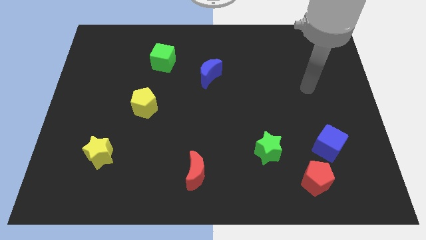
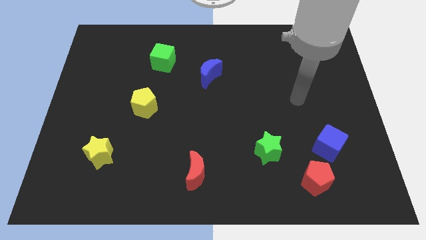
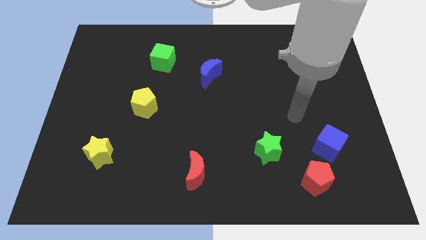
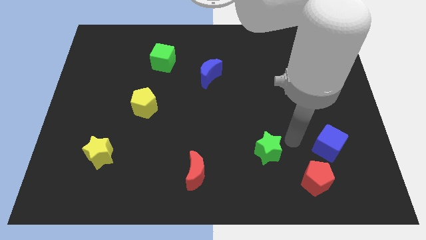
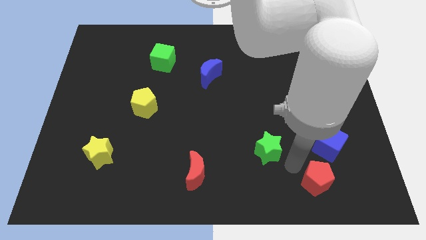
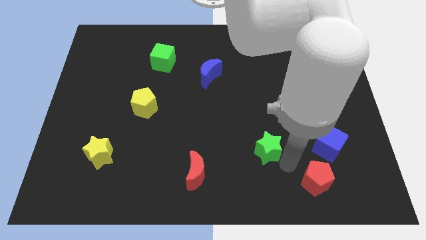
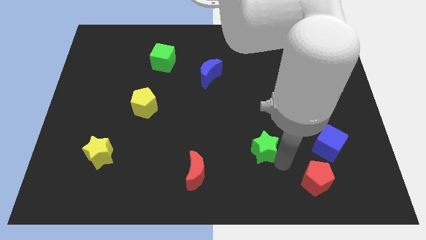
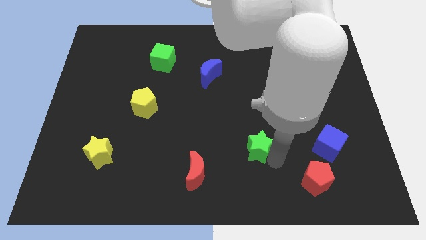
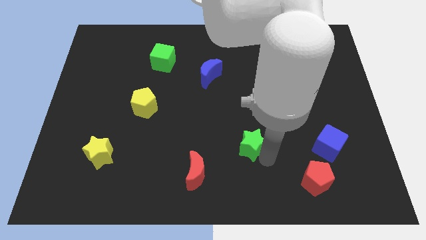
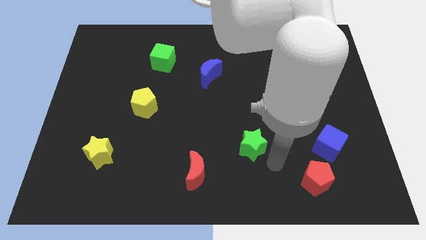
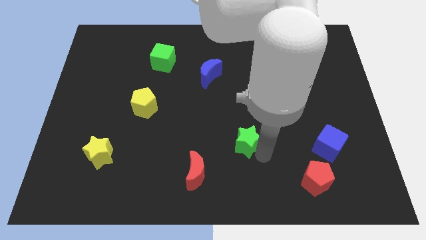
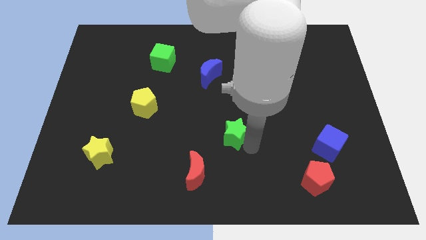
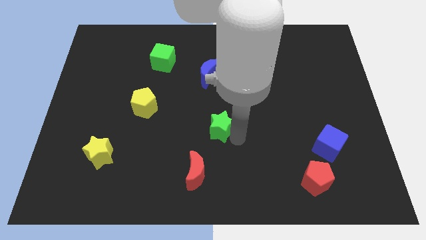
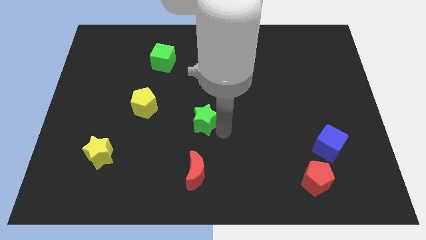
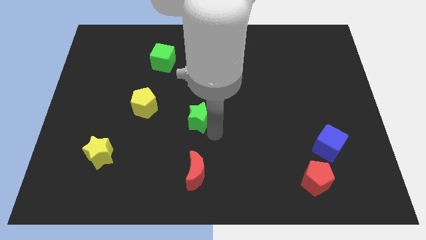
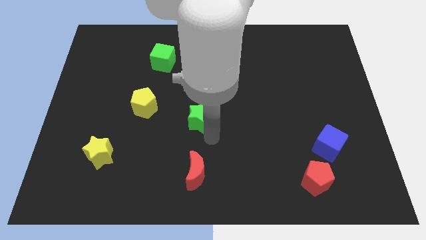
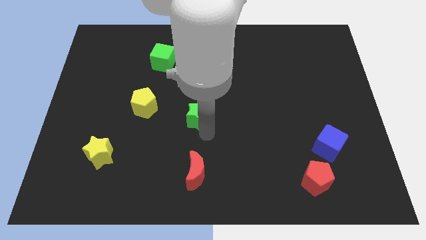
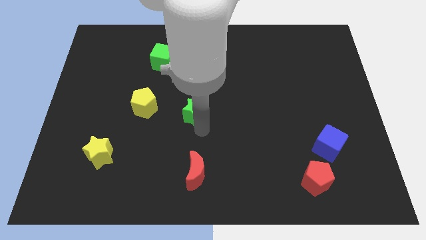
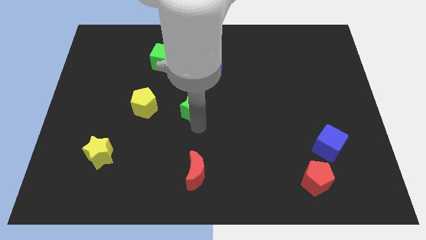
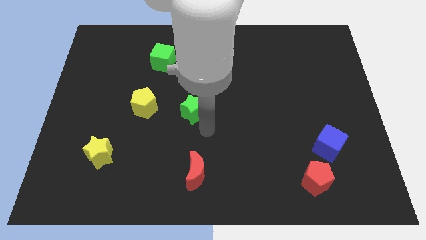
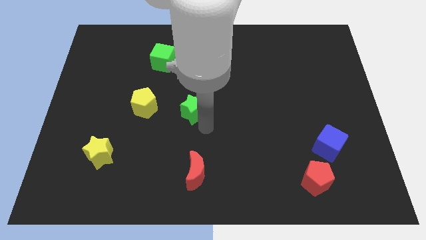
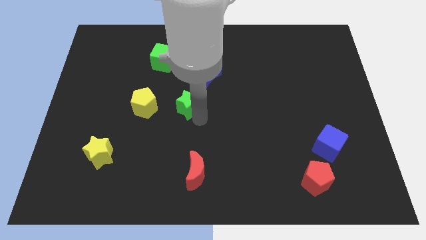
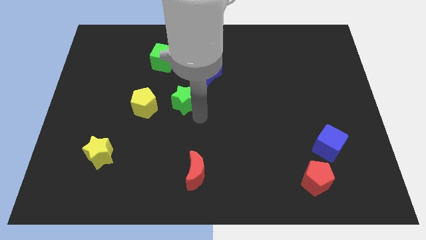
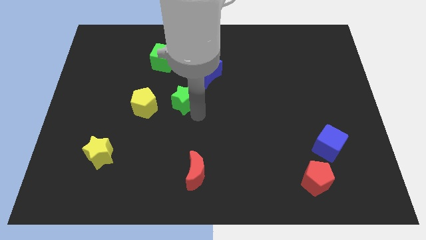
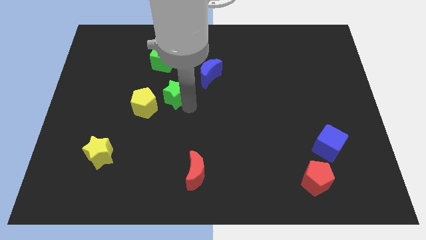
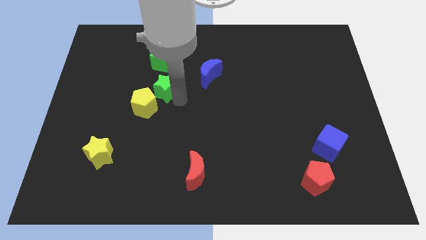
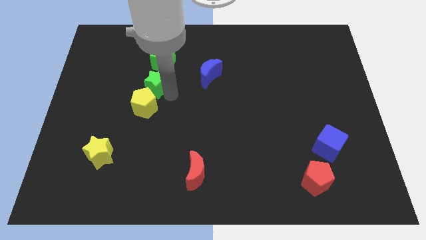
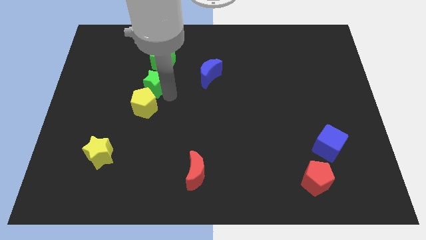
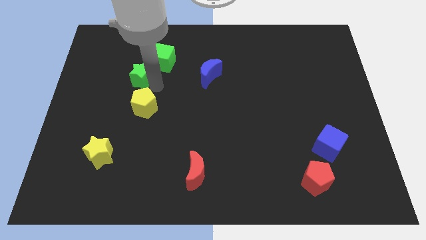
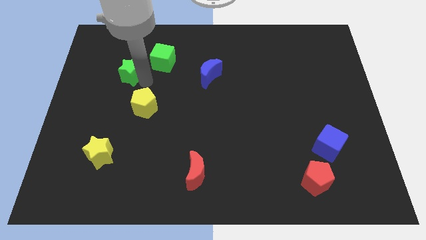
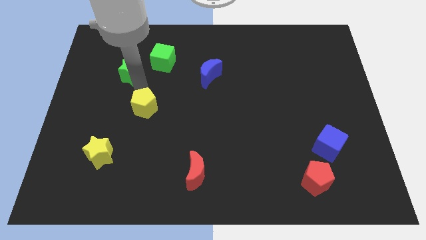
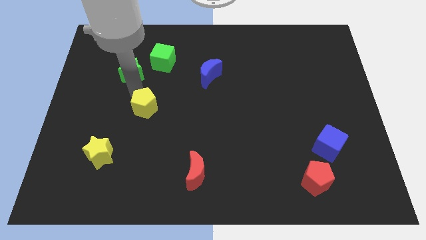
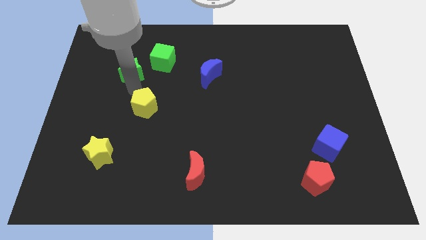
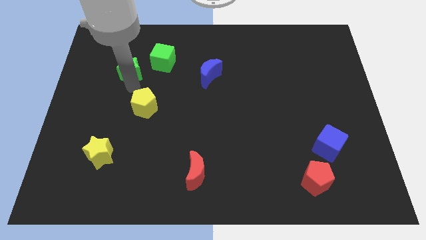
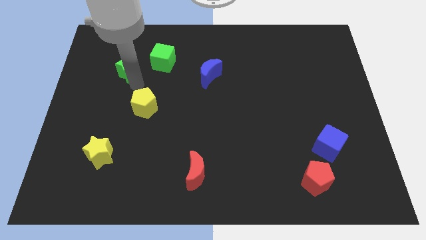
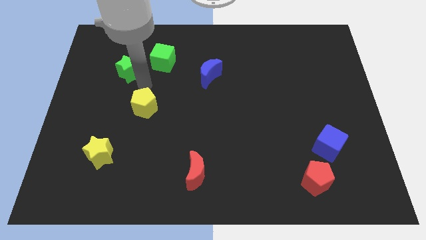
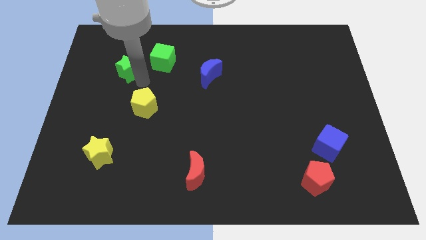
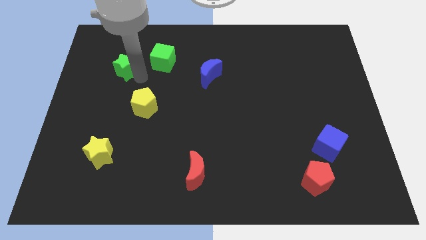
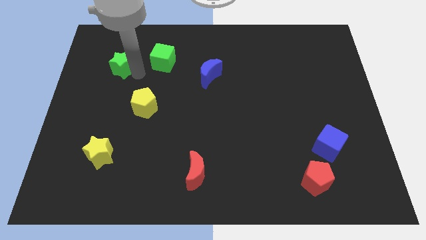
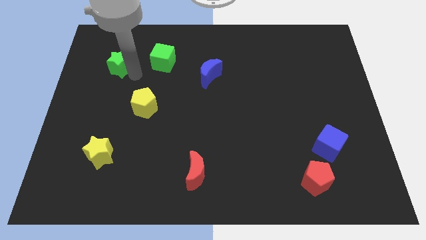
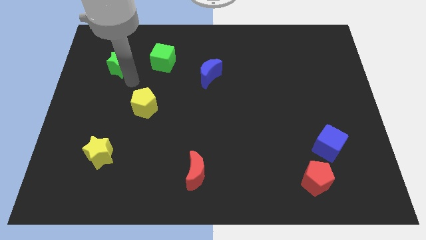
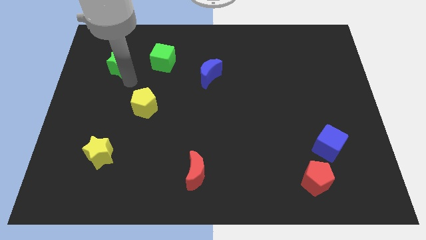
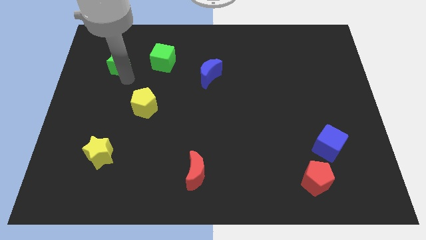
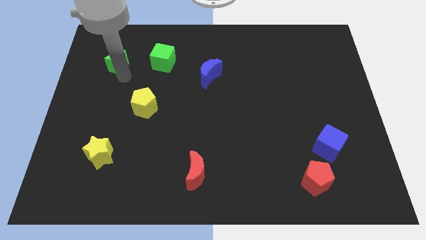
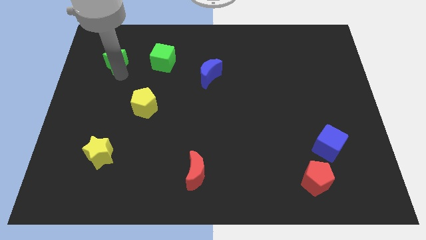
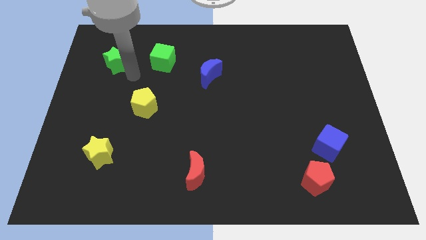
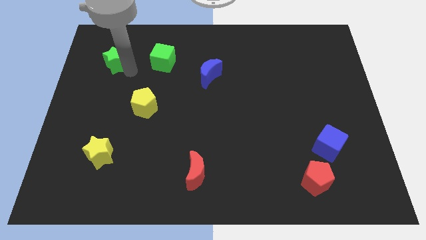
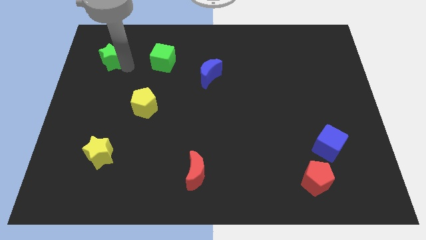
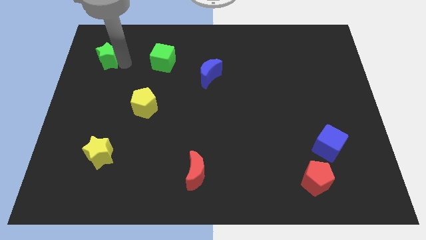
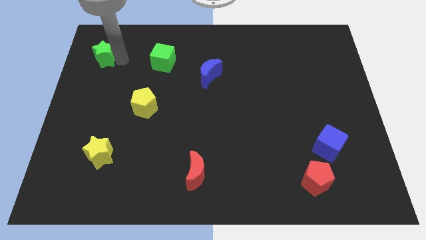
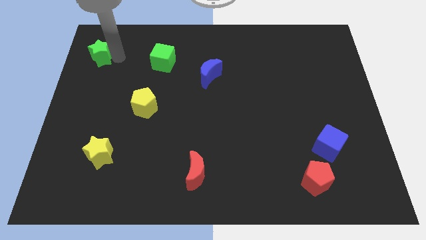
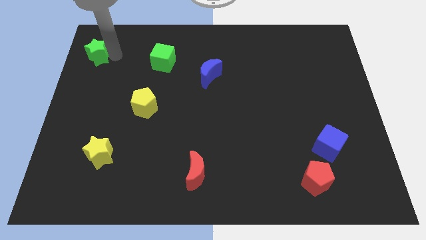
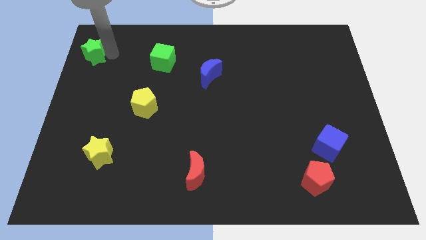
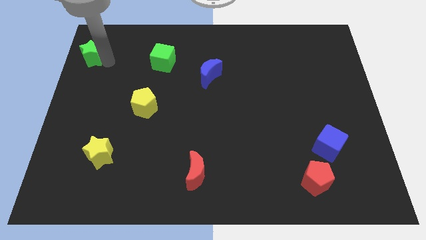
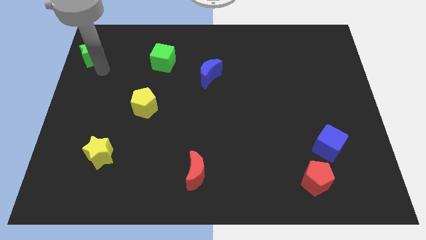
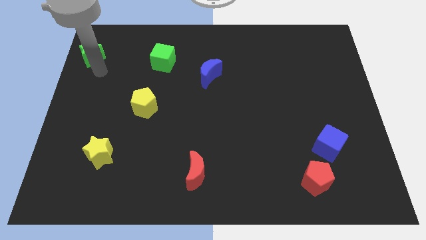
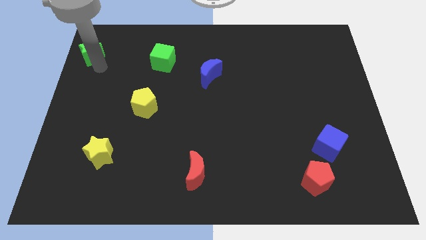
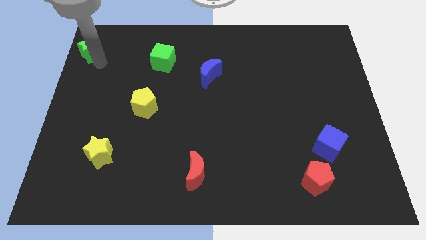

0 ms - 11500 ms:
put the green star to the top left
